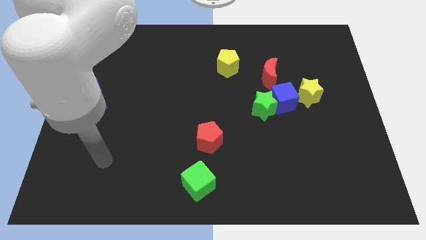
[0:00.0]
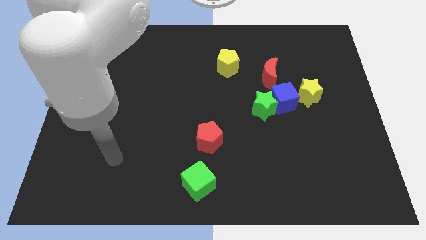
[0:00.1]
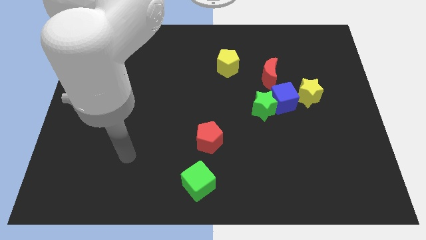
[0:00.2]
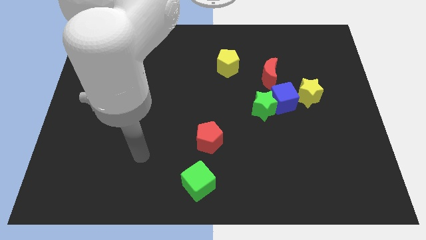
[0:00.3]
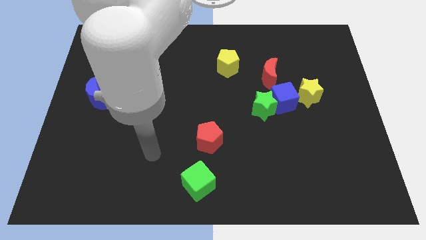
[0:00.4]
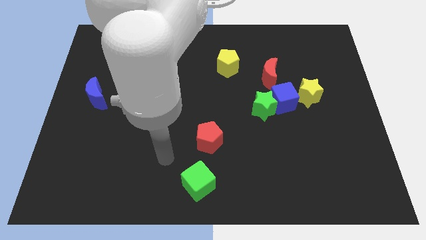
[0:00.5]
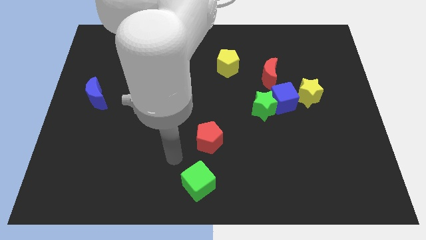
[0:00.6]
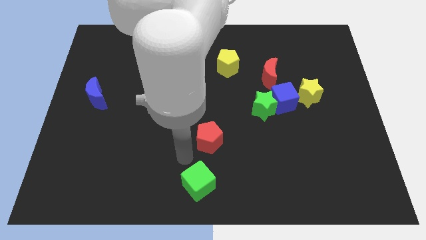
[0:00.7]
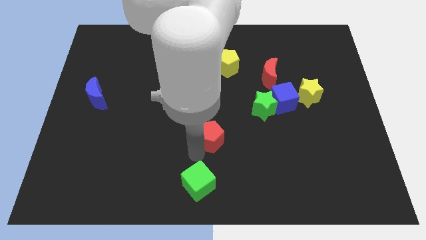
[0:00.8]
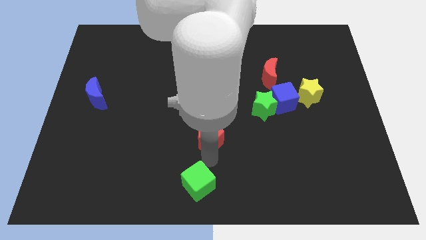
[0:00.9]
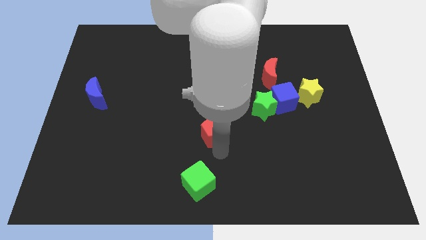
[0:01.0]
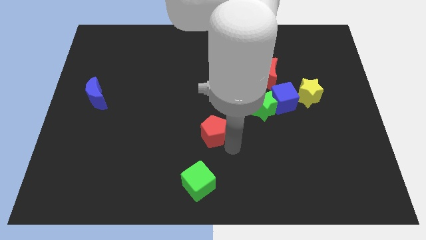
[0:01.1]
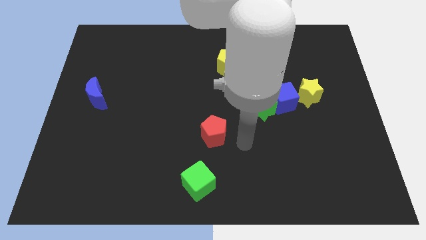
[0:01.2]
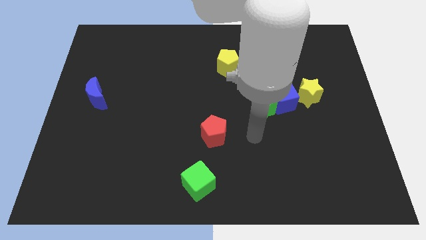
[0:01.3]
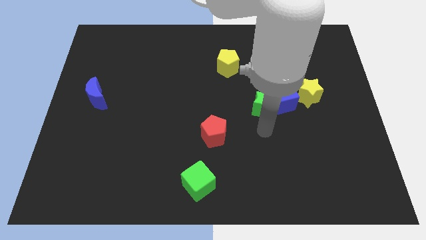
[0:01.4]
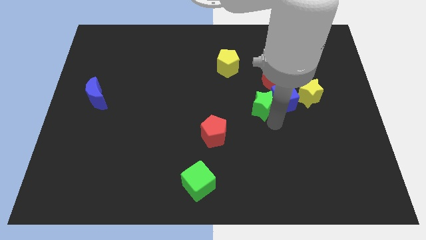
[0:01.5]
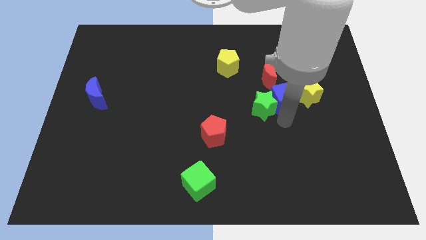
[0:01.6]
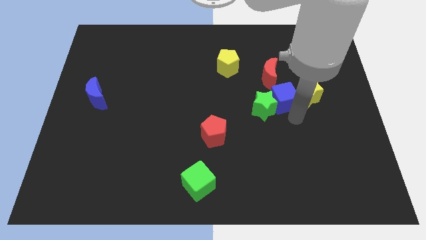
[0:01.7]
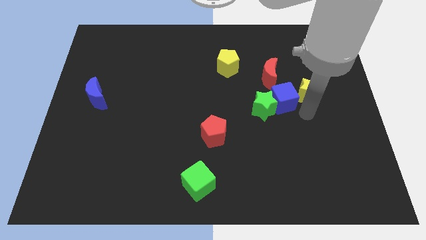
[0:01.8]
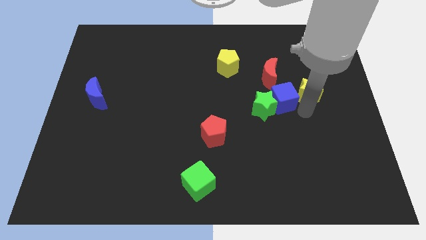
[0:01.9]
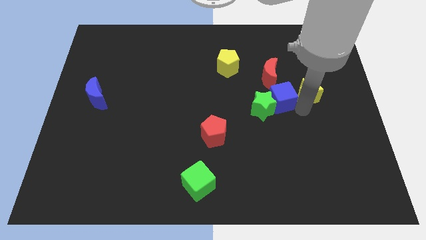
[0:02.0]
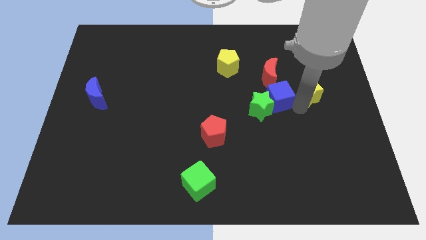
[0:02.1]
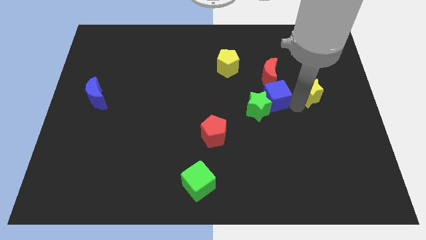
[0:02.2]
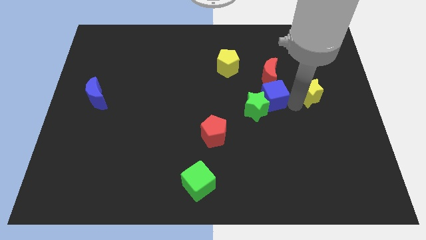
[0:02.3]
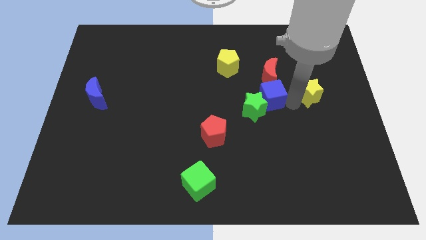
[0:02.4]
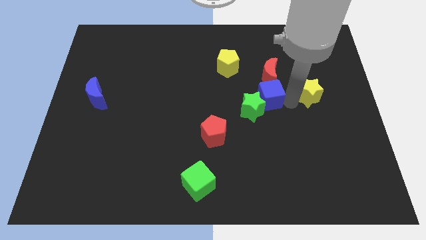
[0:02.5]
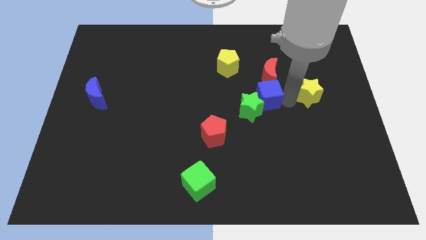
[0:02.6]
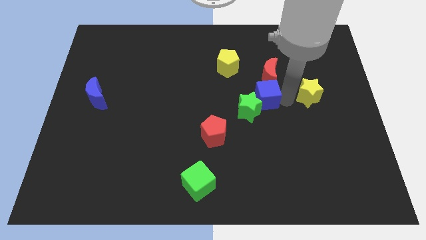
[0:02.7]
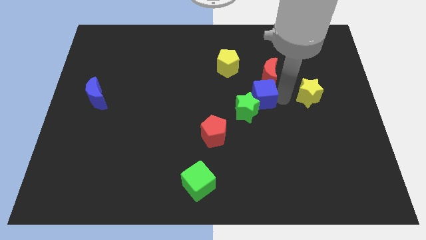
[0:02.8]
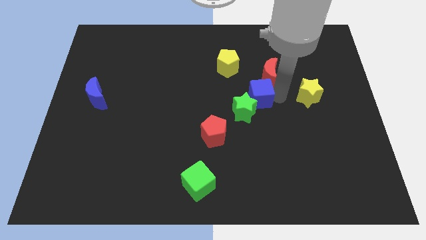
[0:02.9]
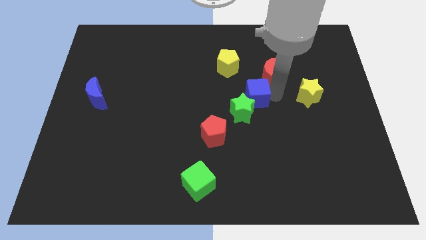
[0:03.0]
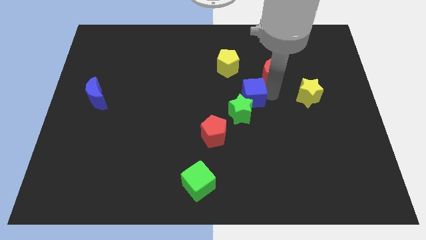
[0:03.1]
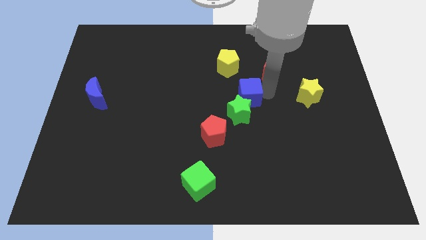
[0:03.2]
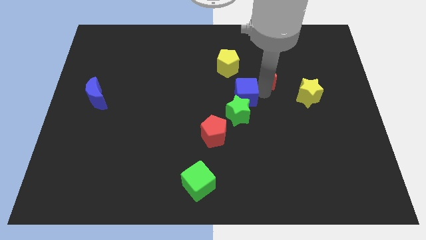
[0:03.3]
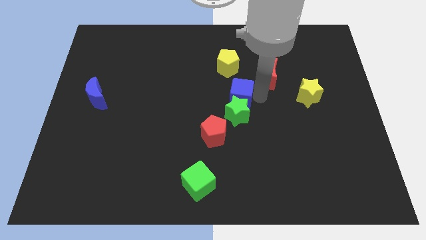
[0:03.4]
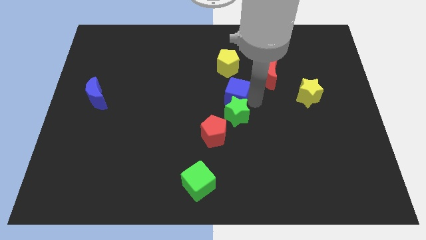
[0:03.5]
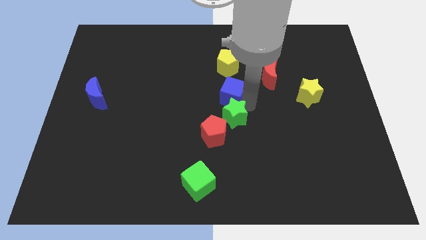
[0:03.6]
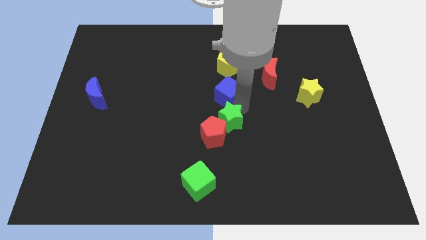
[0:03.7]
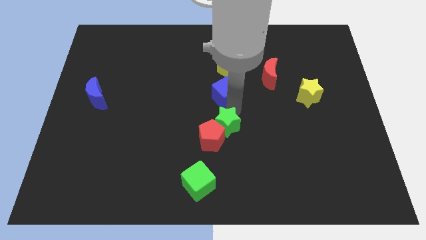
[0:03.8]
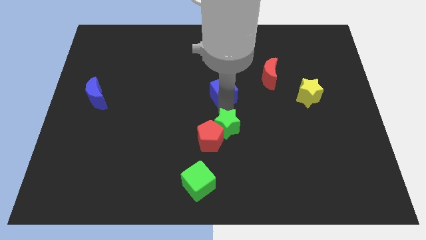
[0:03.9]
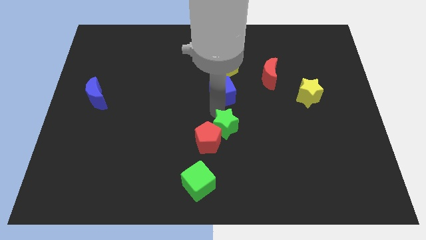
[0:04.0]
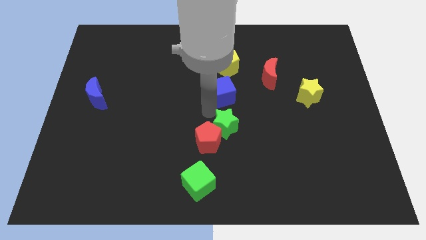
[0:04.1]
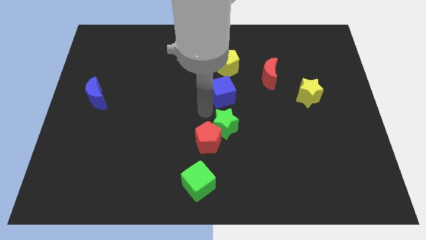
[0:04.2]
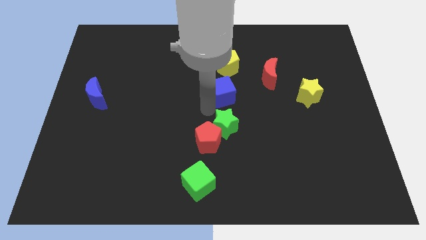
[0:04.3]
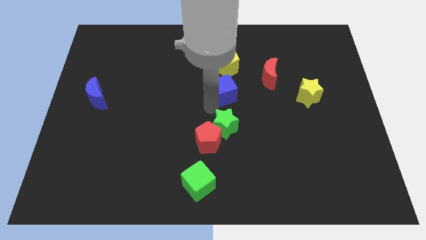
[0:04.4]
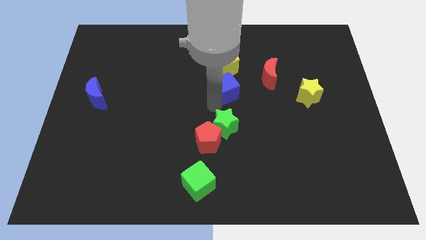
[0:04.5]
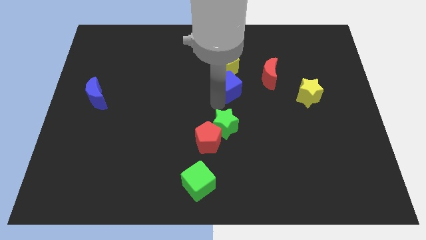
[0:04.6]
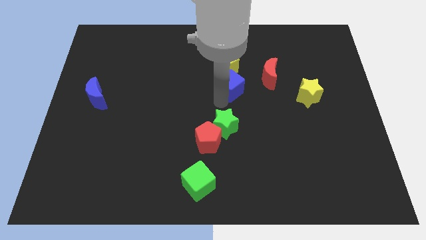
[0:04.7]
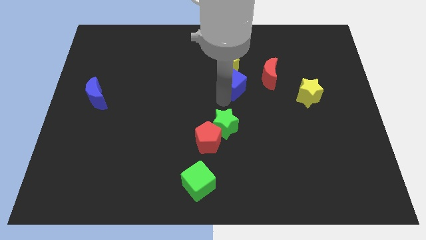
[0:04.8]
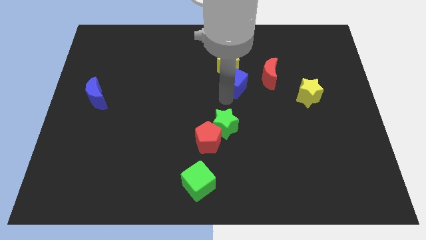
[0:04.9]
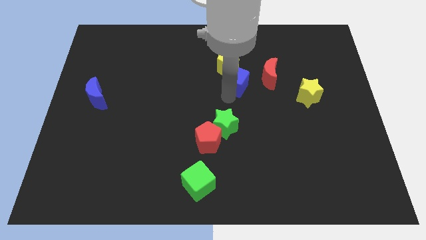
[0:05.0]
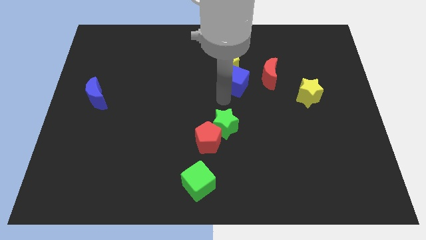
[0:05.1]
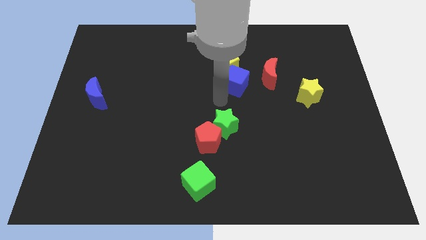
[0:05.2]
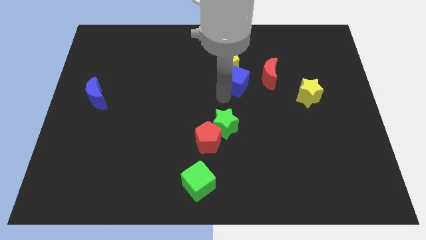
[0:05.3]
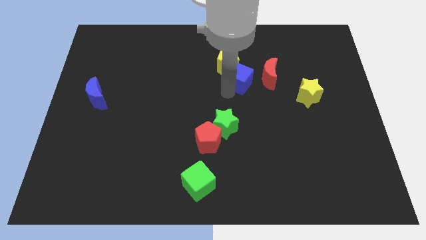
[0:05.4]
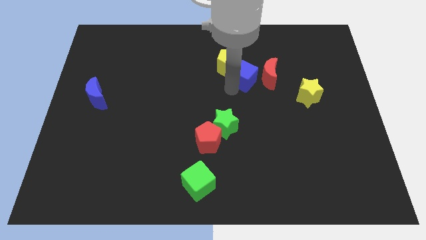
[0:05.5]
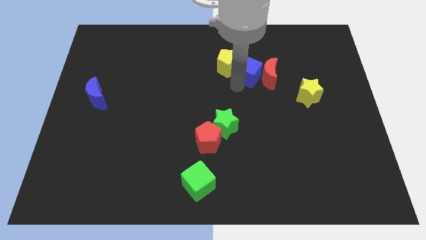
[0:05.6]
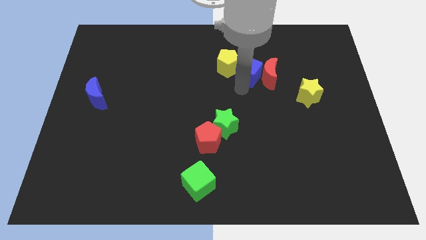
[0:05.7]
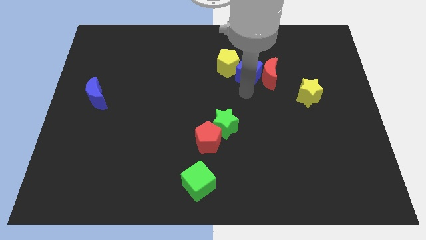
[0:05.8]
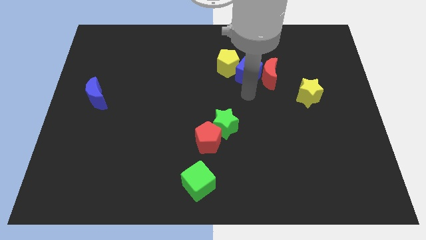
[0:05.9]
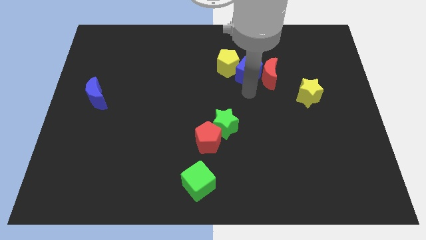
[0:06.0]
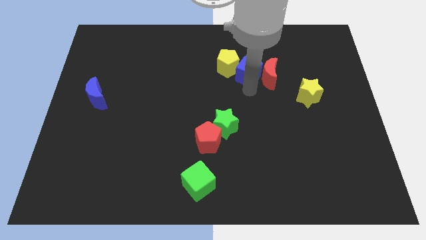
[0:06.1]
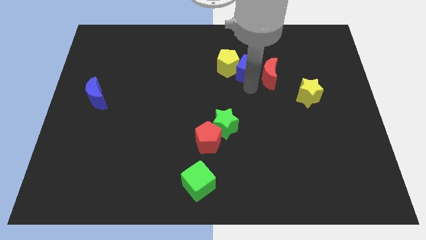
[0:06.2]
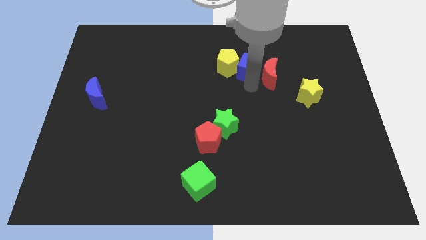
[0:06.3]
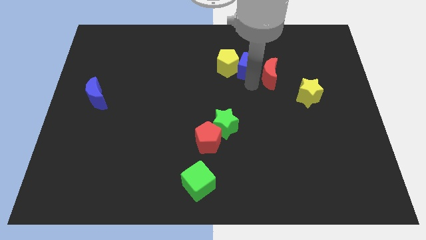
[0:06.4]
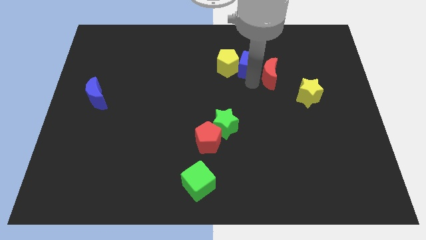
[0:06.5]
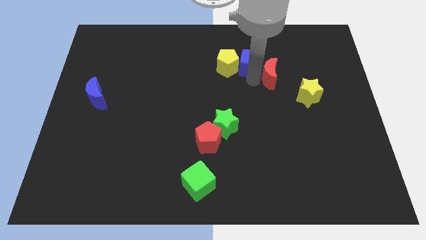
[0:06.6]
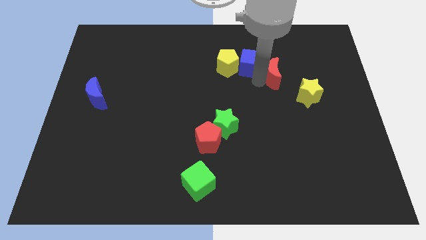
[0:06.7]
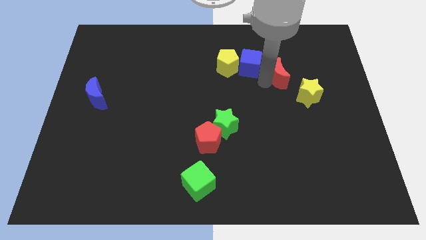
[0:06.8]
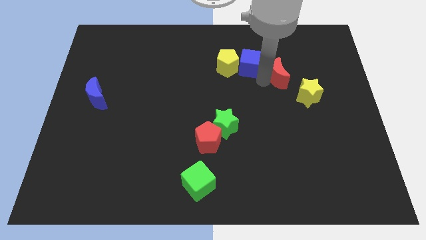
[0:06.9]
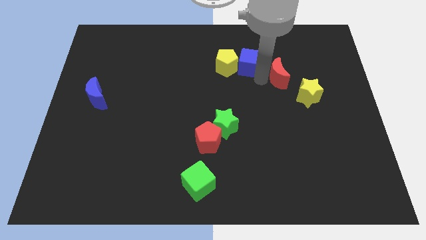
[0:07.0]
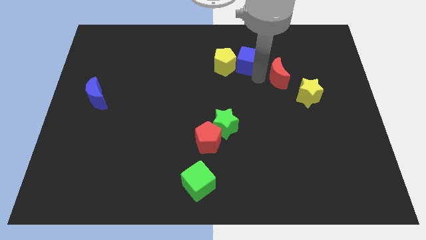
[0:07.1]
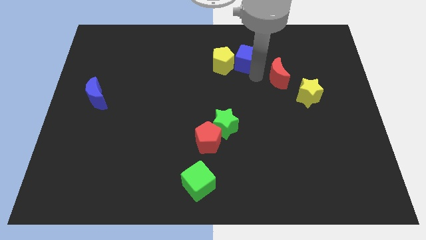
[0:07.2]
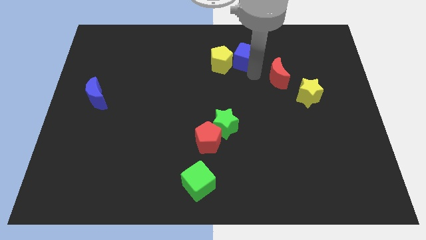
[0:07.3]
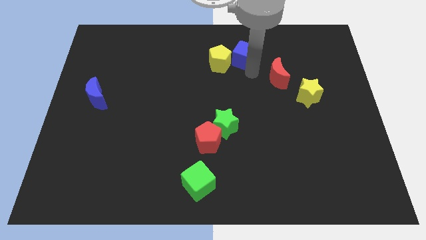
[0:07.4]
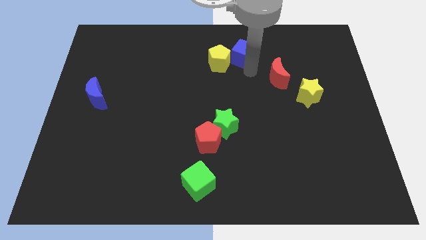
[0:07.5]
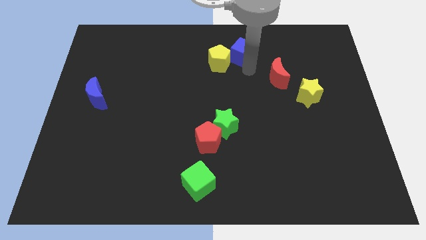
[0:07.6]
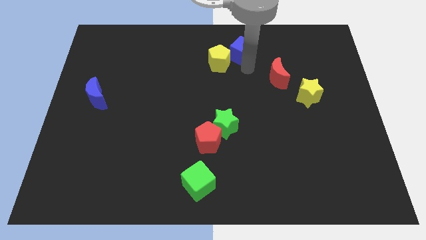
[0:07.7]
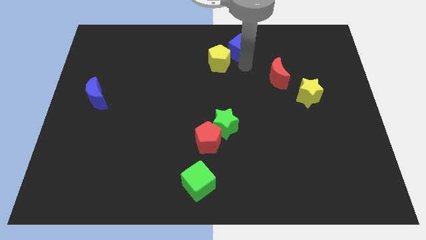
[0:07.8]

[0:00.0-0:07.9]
push the blue cube to the top
